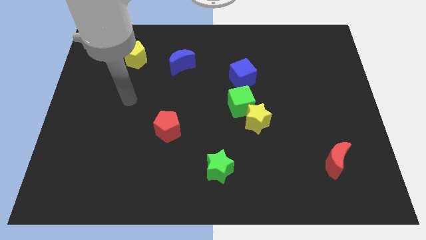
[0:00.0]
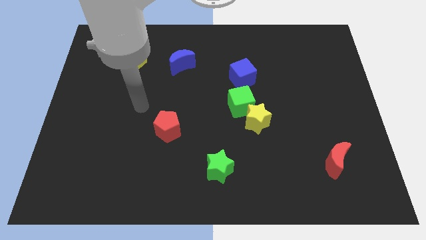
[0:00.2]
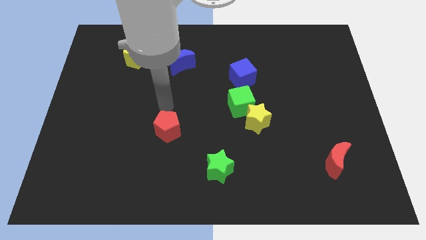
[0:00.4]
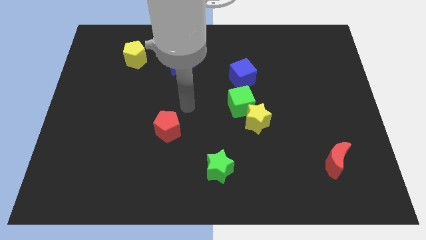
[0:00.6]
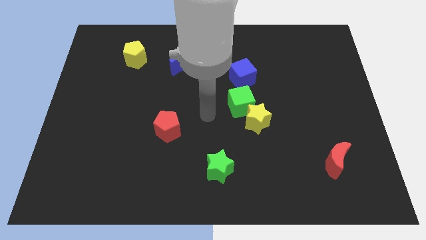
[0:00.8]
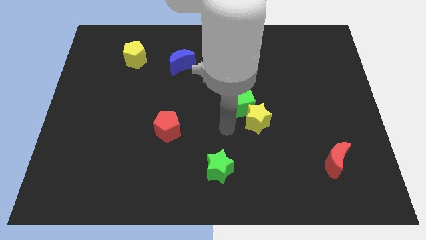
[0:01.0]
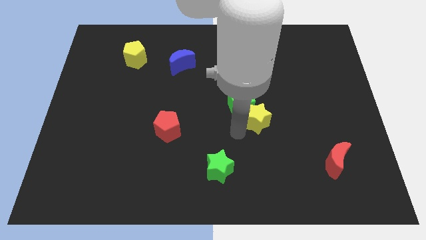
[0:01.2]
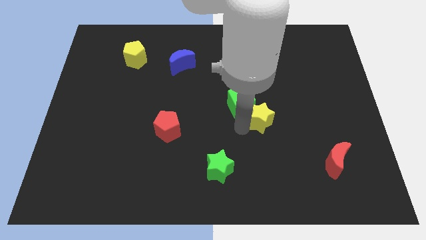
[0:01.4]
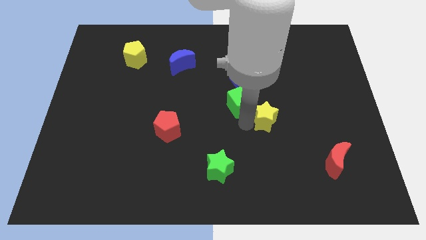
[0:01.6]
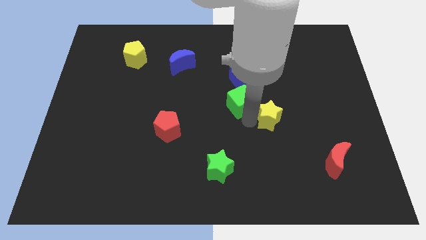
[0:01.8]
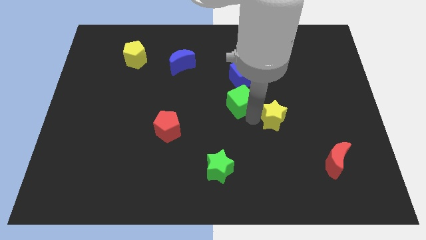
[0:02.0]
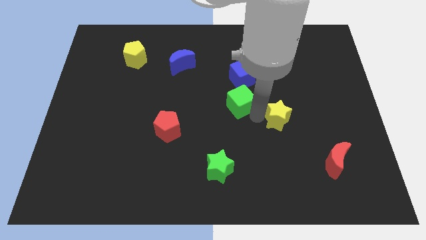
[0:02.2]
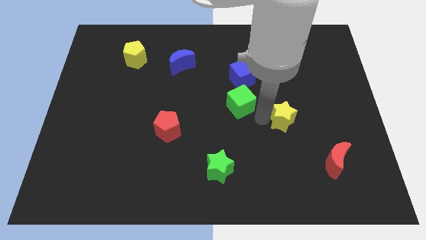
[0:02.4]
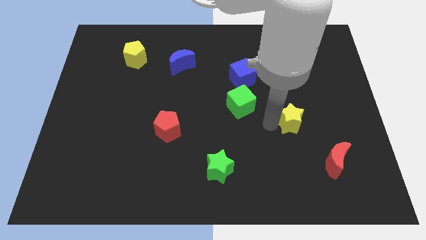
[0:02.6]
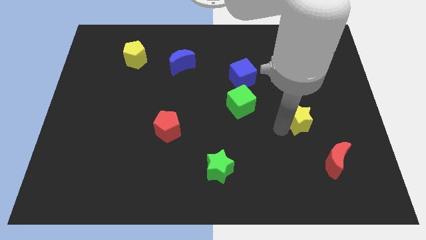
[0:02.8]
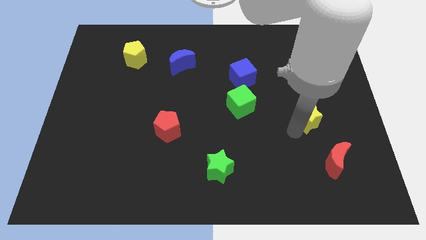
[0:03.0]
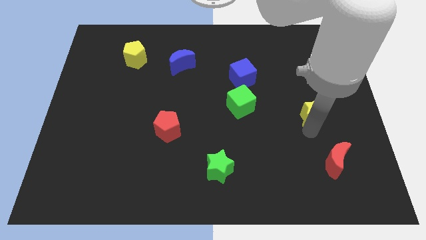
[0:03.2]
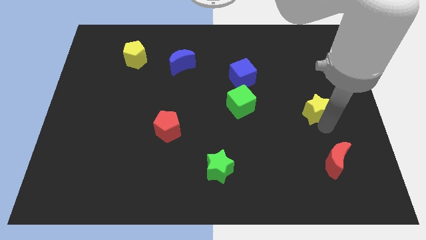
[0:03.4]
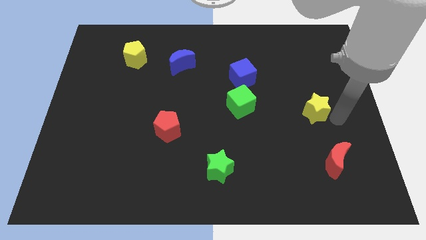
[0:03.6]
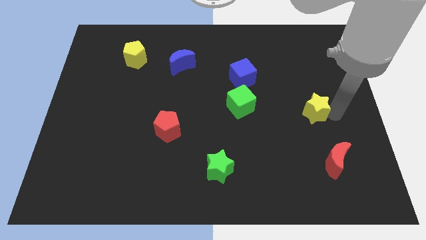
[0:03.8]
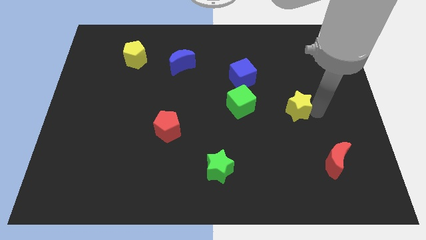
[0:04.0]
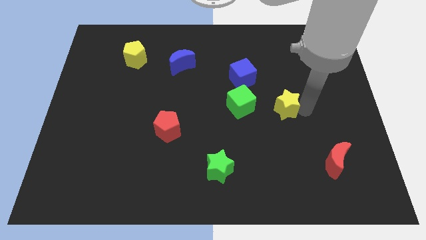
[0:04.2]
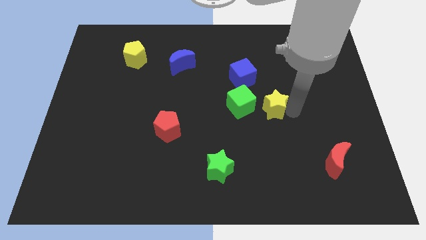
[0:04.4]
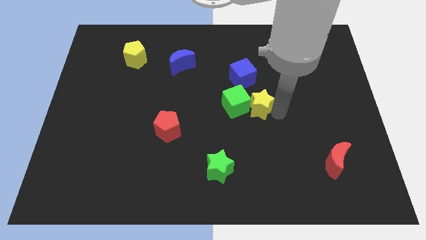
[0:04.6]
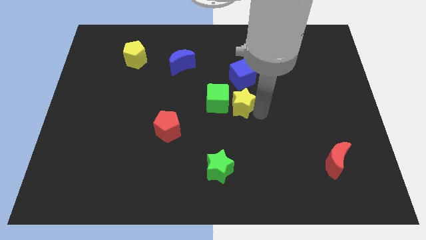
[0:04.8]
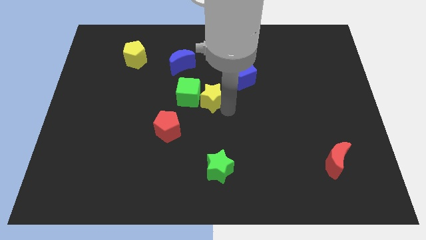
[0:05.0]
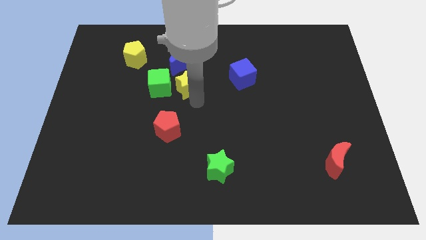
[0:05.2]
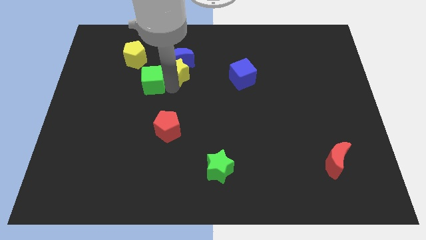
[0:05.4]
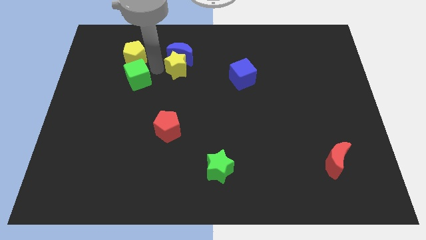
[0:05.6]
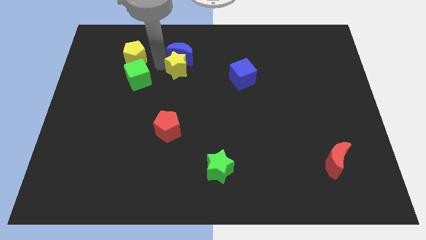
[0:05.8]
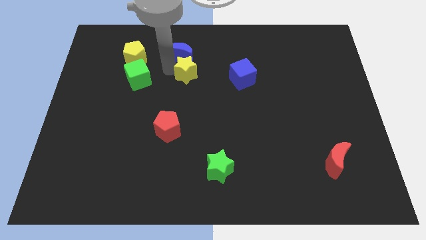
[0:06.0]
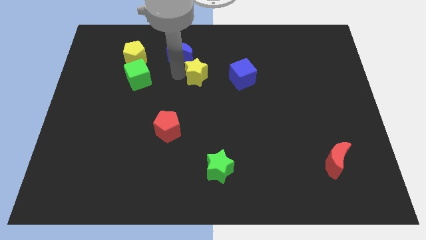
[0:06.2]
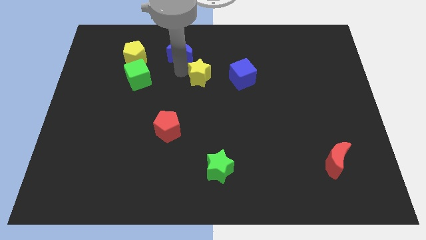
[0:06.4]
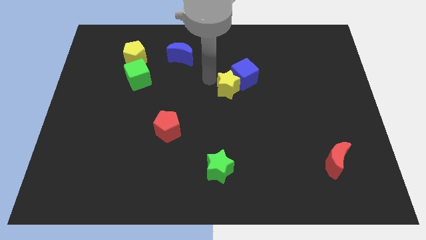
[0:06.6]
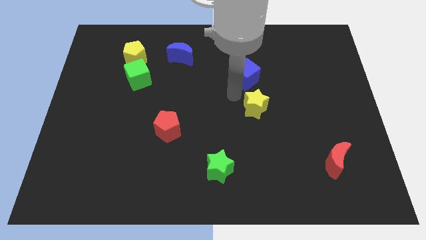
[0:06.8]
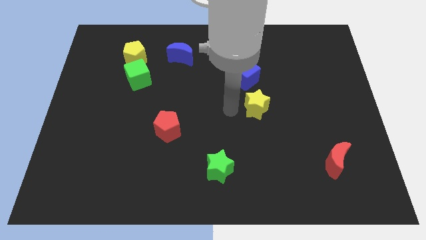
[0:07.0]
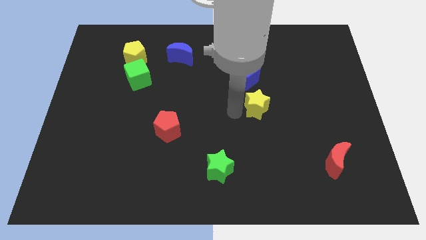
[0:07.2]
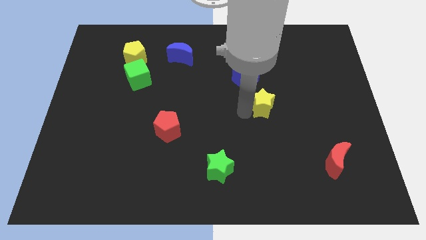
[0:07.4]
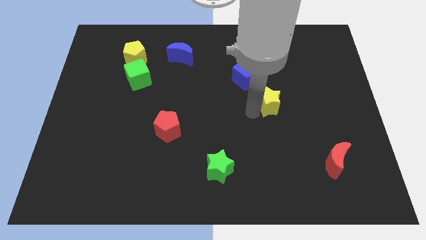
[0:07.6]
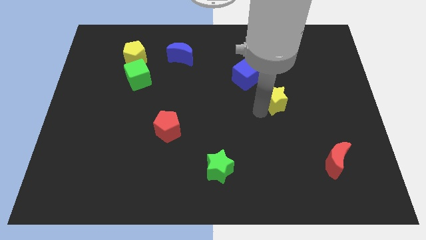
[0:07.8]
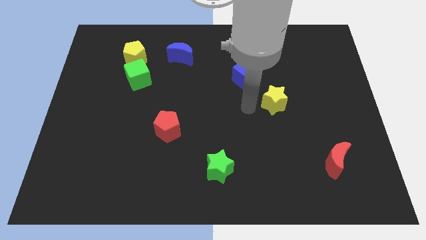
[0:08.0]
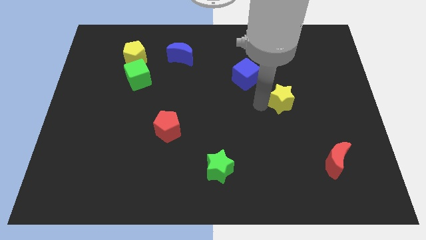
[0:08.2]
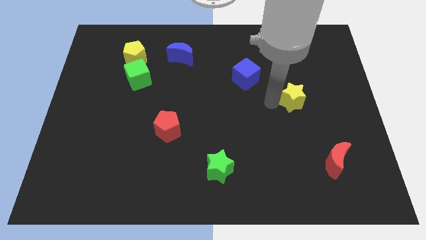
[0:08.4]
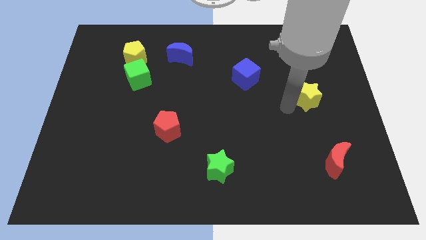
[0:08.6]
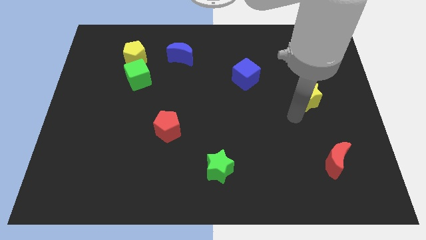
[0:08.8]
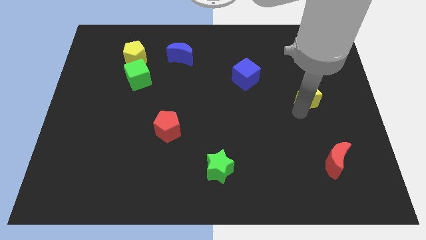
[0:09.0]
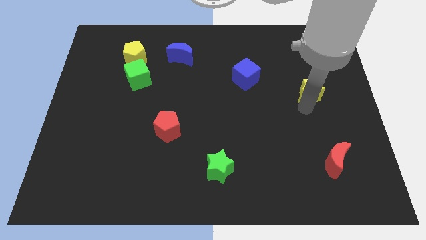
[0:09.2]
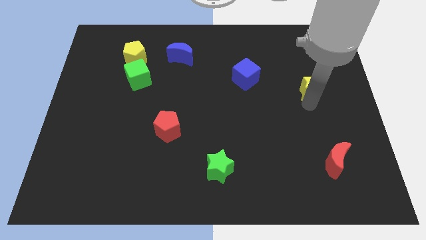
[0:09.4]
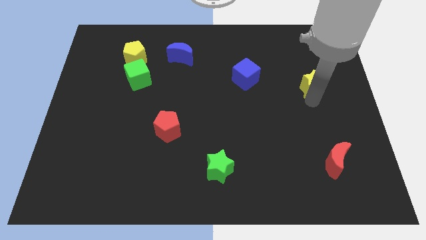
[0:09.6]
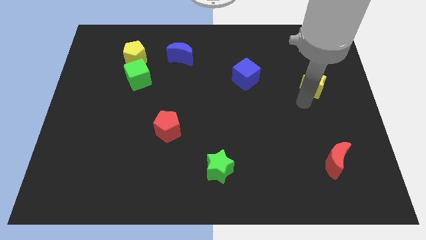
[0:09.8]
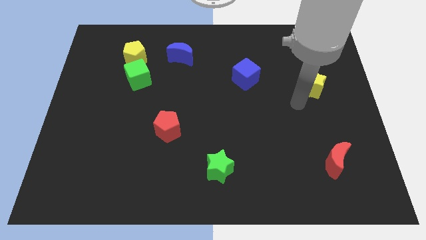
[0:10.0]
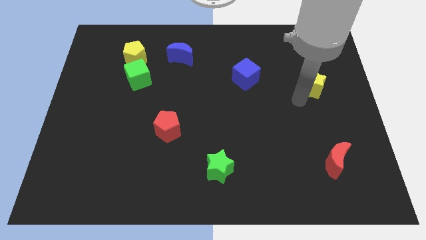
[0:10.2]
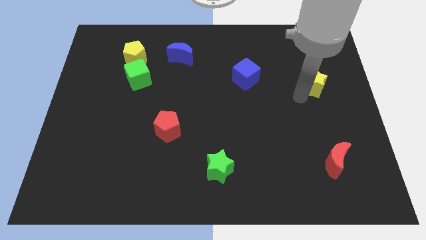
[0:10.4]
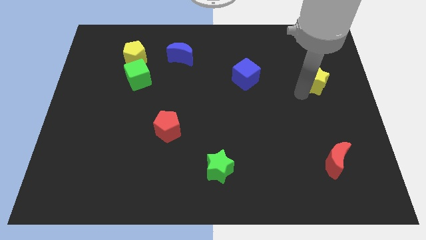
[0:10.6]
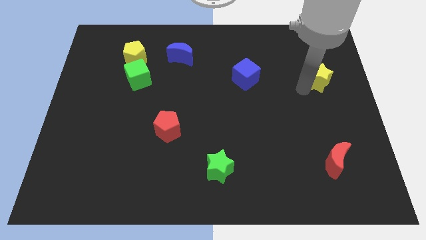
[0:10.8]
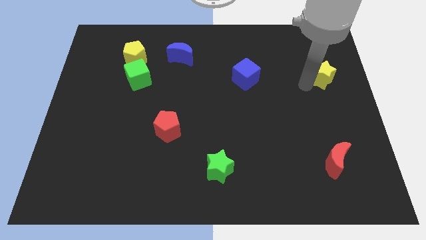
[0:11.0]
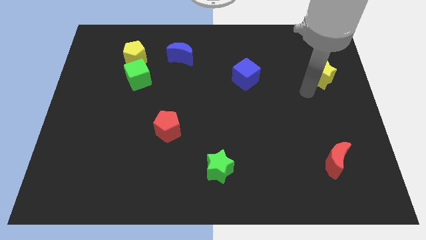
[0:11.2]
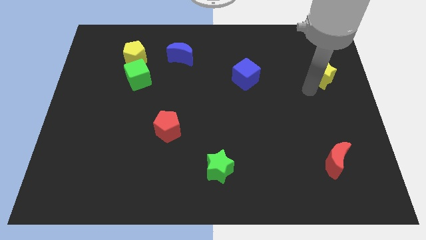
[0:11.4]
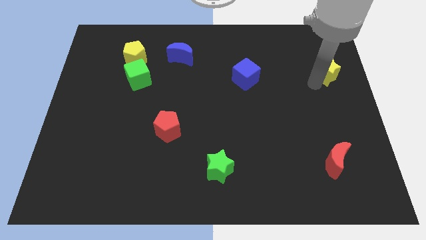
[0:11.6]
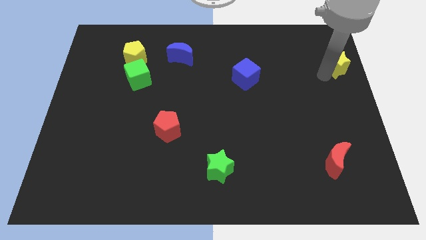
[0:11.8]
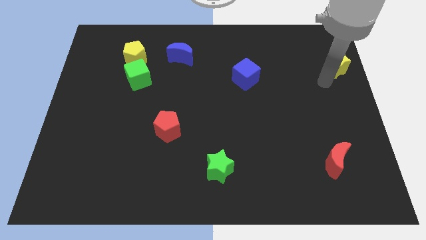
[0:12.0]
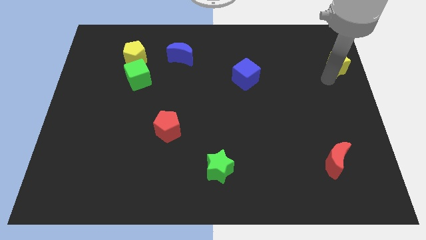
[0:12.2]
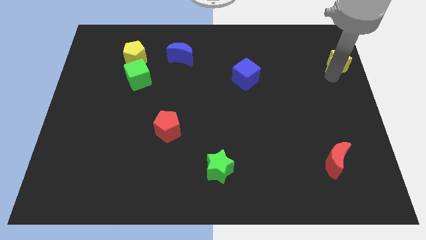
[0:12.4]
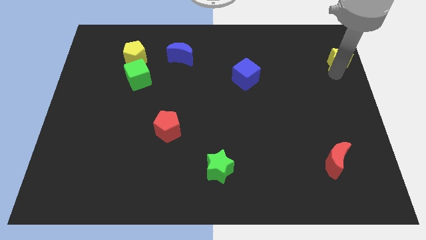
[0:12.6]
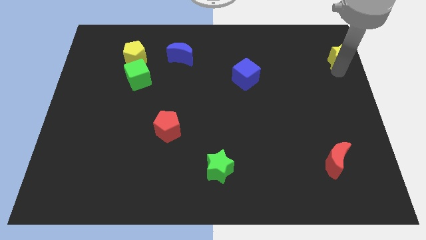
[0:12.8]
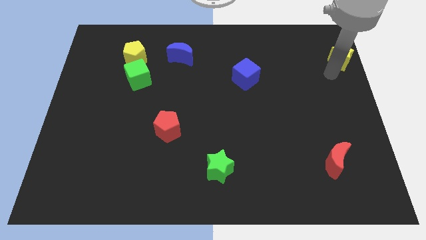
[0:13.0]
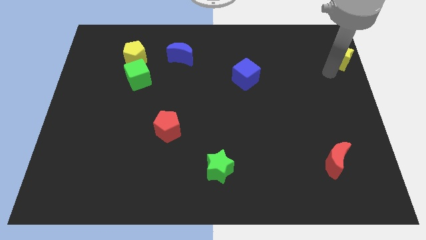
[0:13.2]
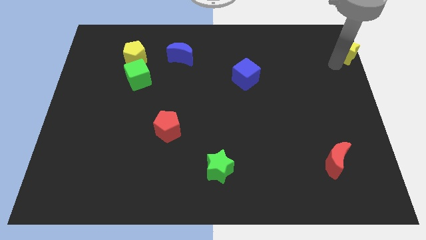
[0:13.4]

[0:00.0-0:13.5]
push the yellow star to the upper right corner

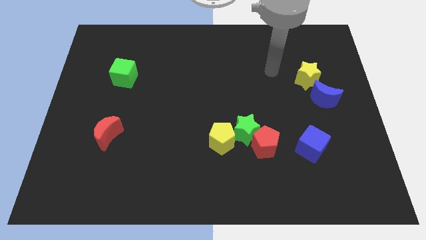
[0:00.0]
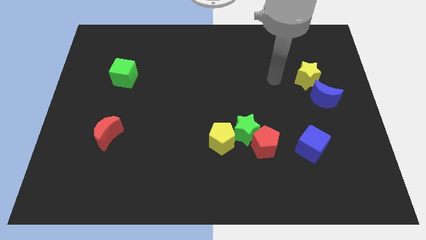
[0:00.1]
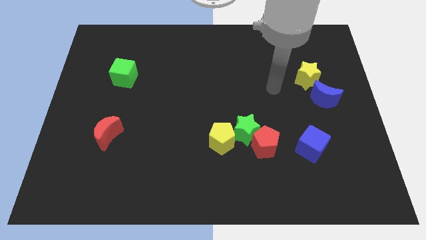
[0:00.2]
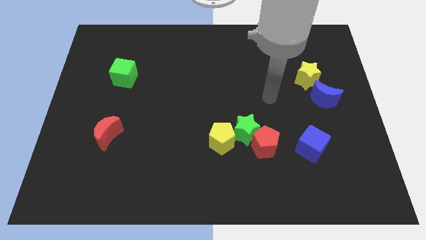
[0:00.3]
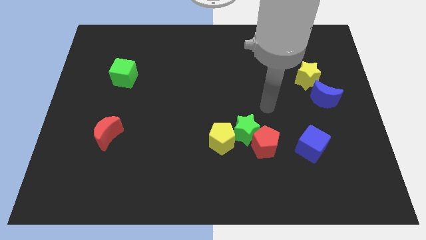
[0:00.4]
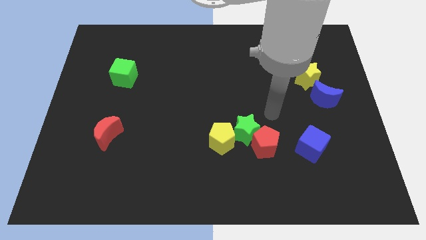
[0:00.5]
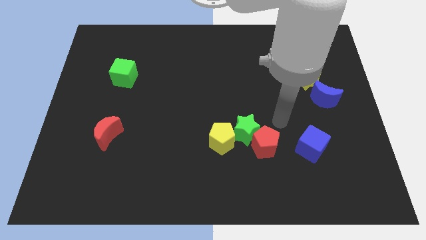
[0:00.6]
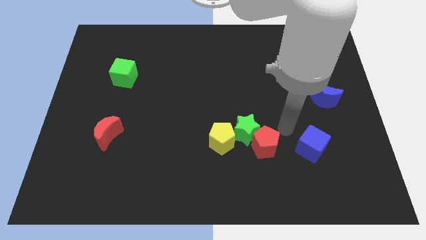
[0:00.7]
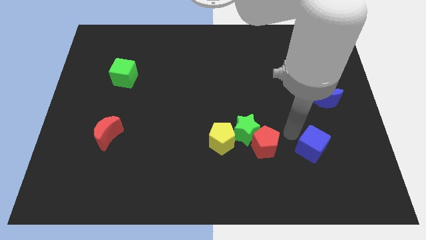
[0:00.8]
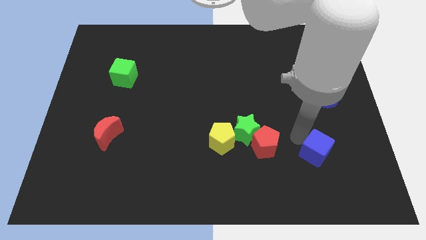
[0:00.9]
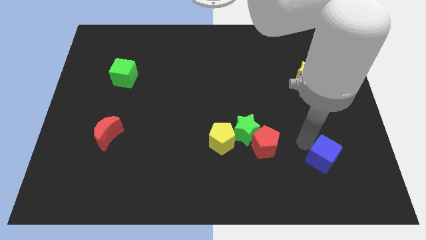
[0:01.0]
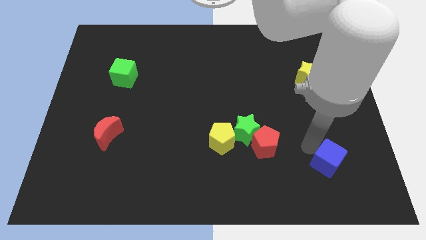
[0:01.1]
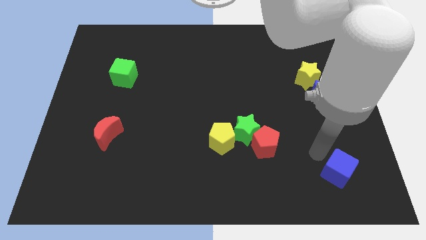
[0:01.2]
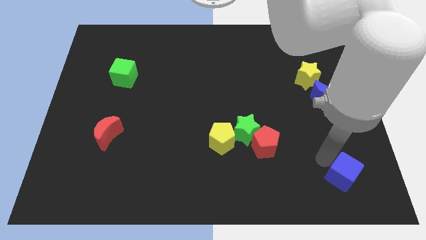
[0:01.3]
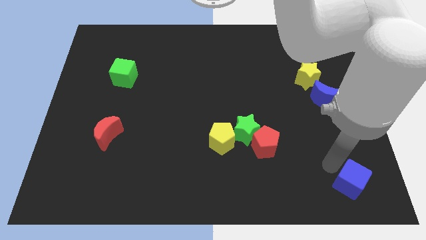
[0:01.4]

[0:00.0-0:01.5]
move the blue cube to the lower right corner
